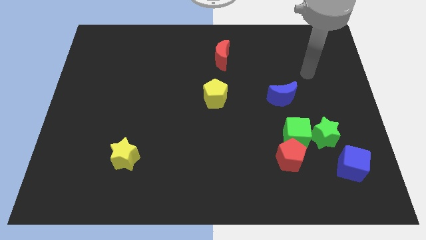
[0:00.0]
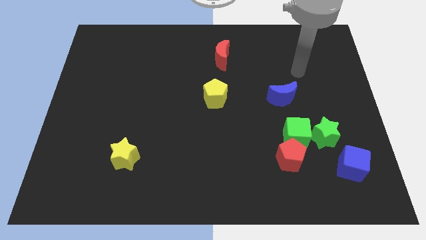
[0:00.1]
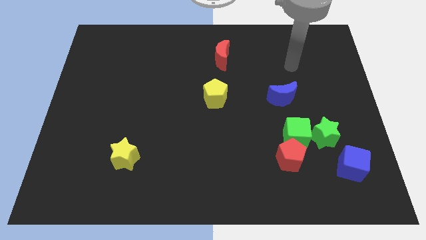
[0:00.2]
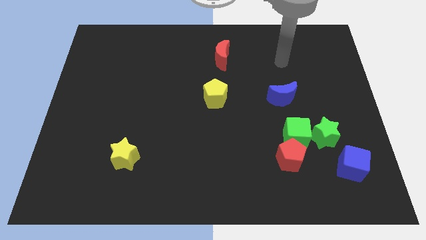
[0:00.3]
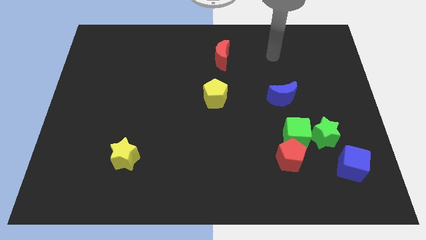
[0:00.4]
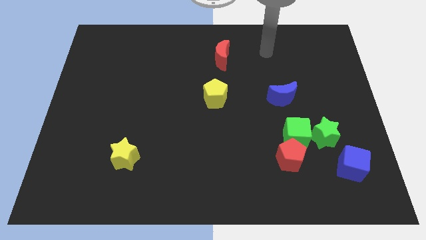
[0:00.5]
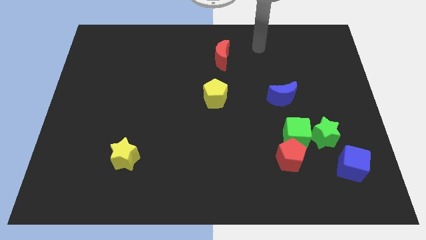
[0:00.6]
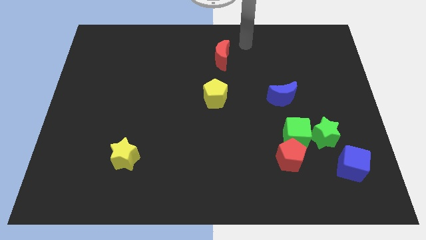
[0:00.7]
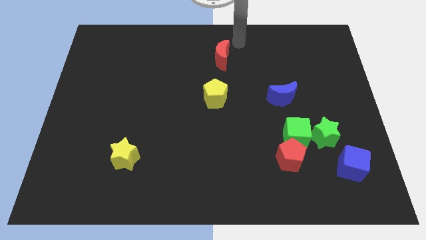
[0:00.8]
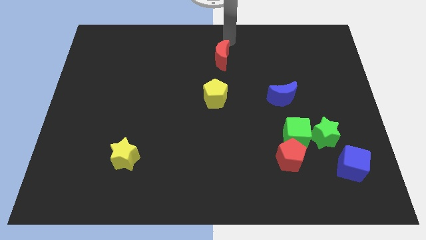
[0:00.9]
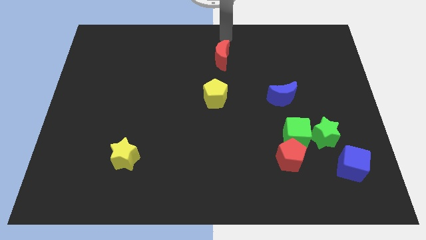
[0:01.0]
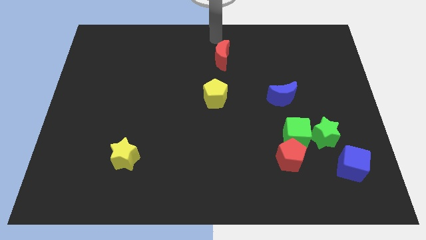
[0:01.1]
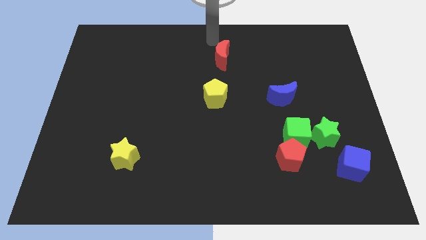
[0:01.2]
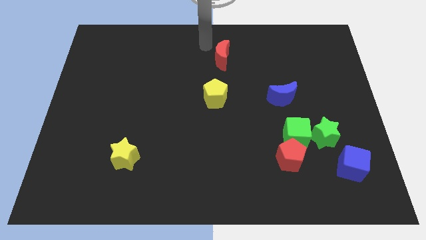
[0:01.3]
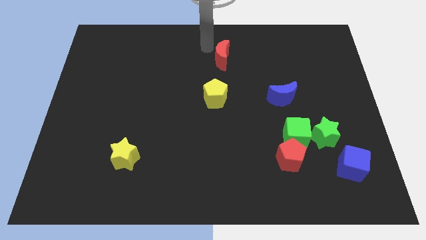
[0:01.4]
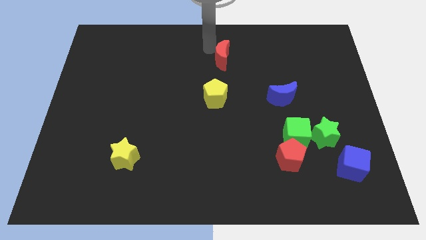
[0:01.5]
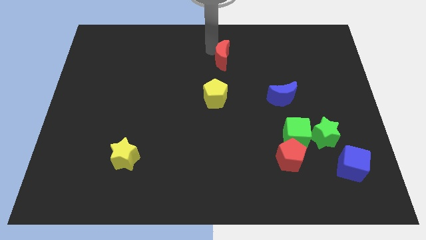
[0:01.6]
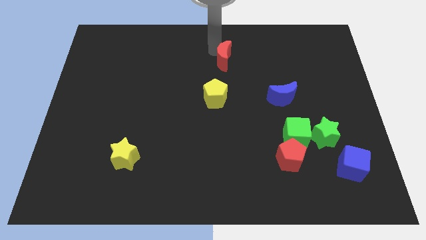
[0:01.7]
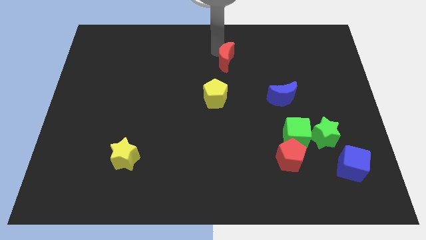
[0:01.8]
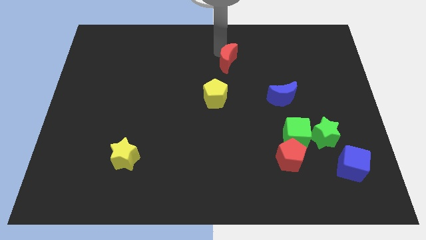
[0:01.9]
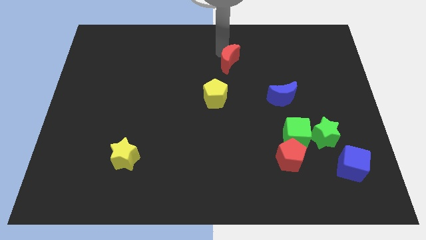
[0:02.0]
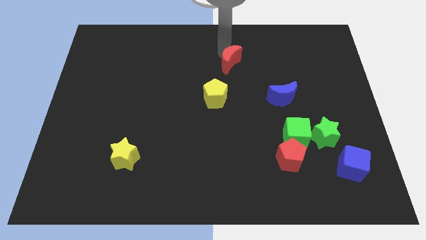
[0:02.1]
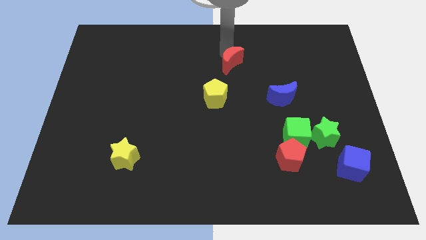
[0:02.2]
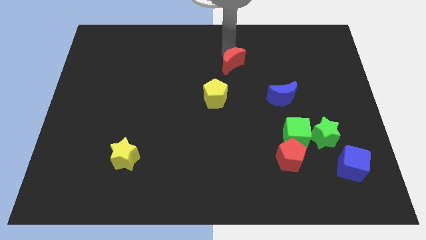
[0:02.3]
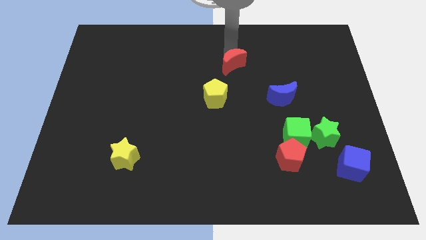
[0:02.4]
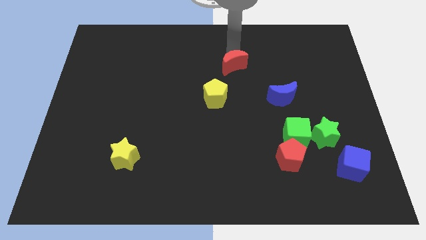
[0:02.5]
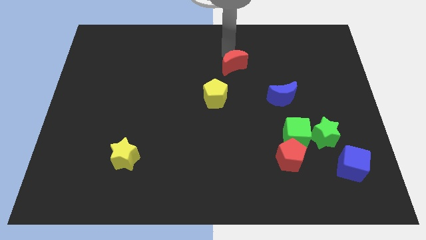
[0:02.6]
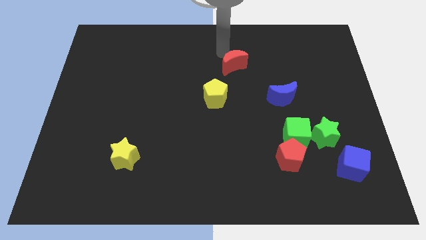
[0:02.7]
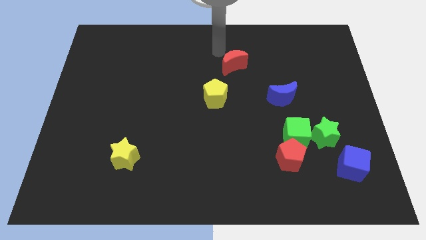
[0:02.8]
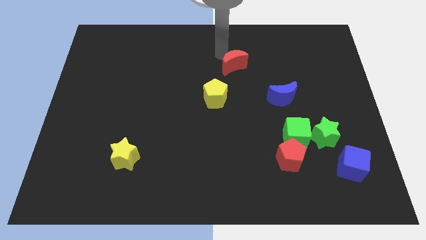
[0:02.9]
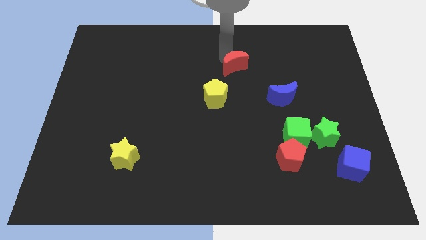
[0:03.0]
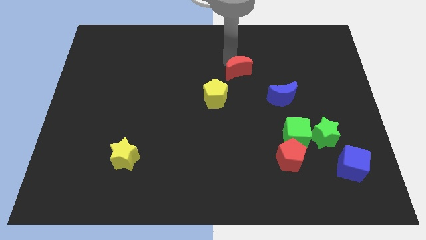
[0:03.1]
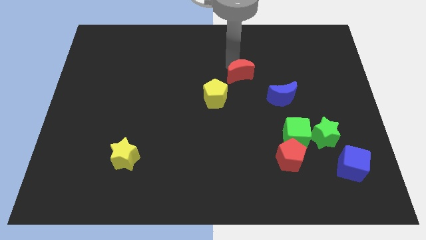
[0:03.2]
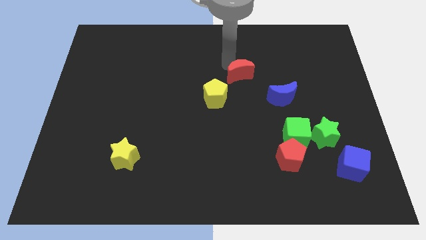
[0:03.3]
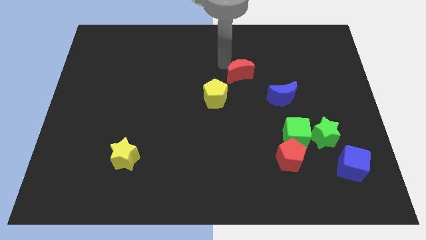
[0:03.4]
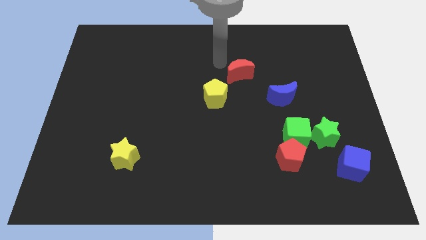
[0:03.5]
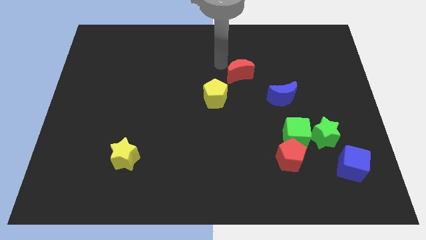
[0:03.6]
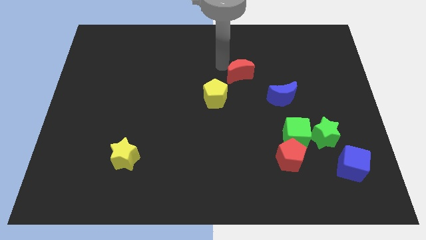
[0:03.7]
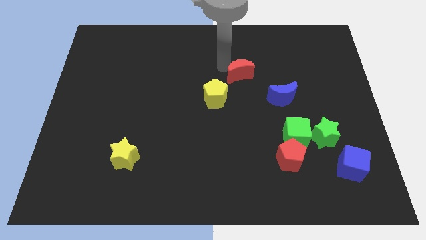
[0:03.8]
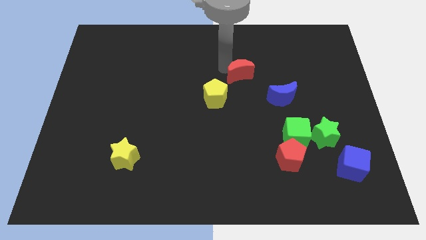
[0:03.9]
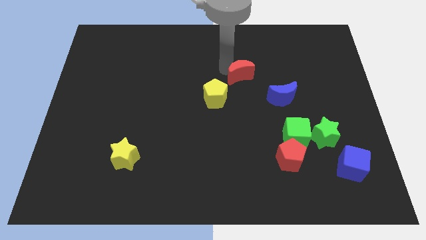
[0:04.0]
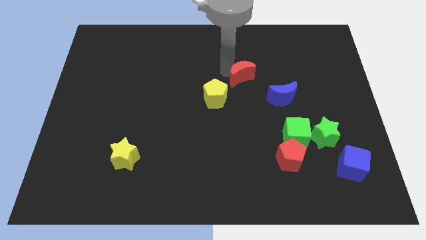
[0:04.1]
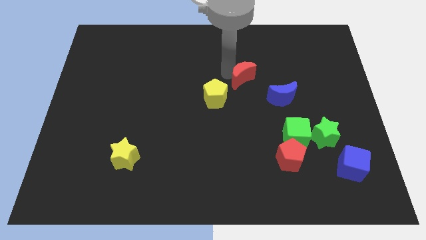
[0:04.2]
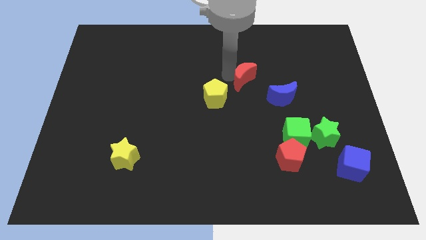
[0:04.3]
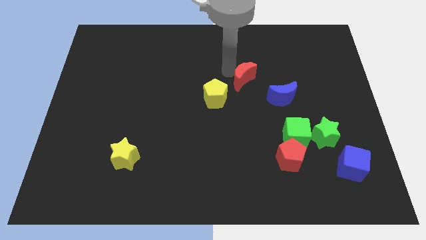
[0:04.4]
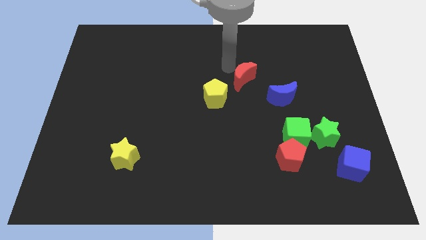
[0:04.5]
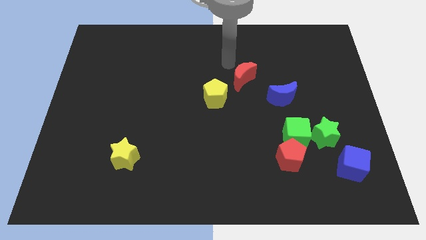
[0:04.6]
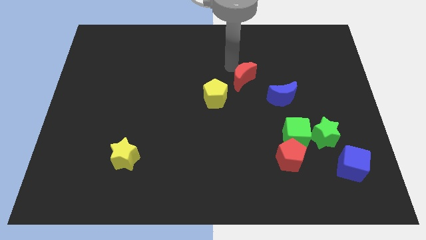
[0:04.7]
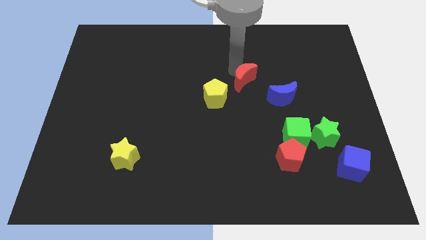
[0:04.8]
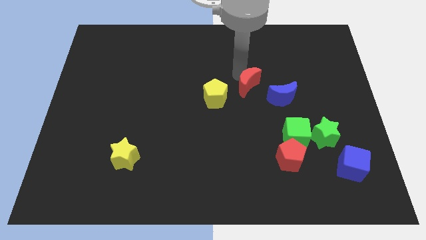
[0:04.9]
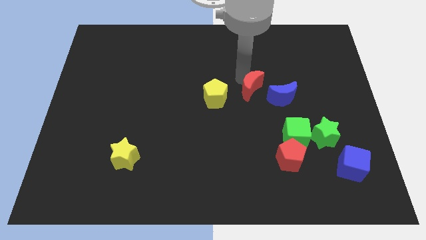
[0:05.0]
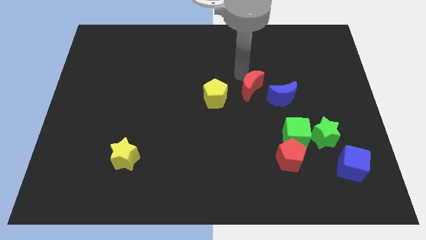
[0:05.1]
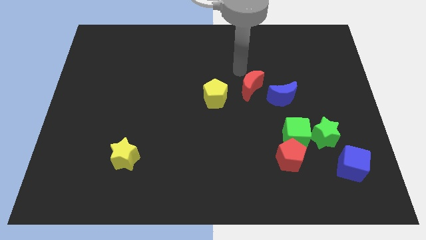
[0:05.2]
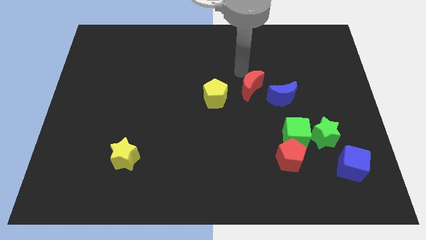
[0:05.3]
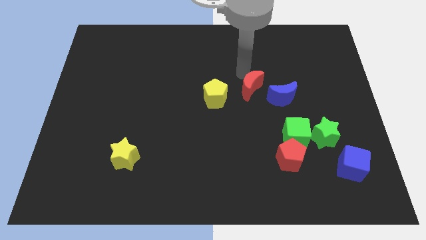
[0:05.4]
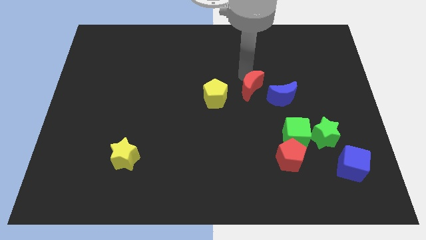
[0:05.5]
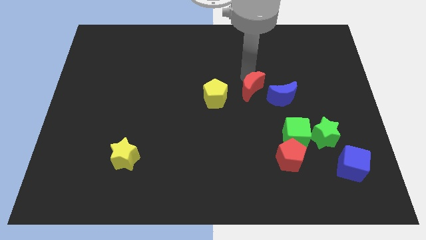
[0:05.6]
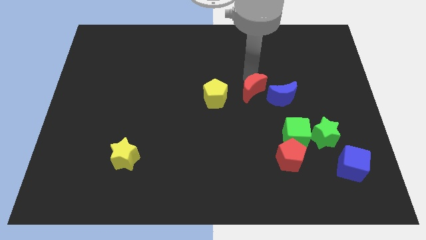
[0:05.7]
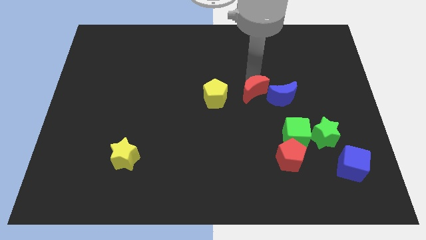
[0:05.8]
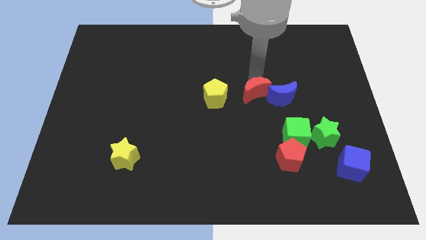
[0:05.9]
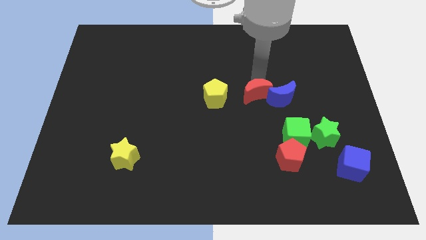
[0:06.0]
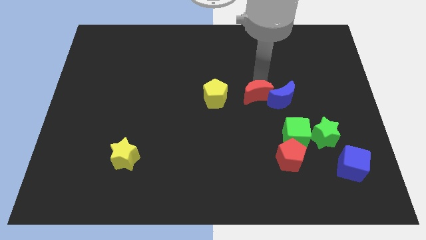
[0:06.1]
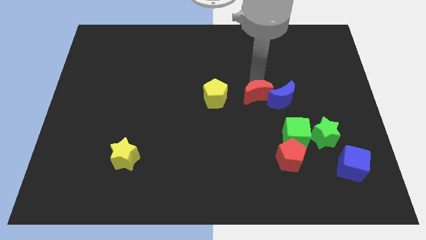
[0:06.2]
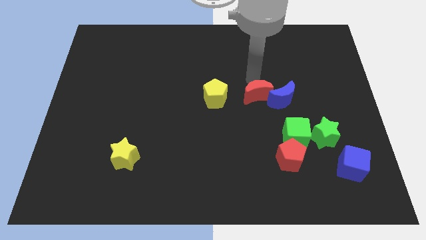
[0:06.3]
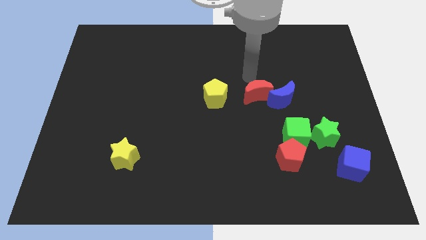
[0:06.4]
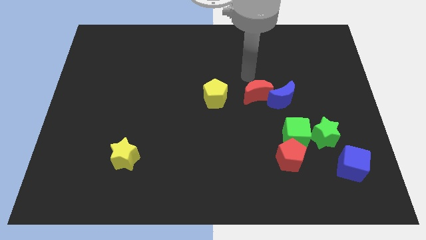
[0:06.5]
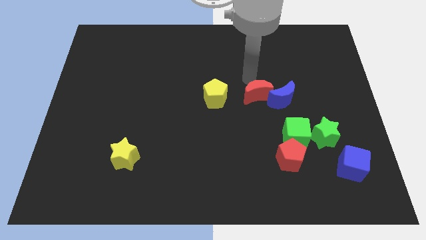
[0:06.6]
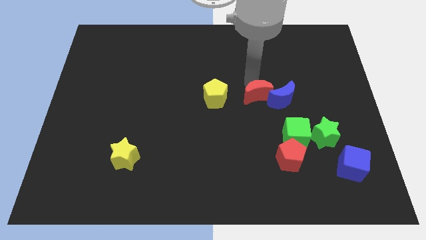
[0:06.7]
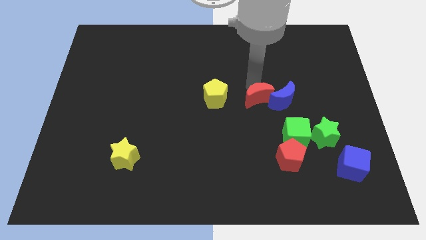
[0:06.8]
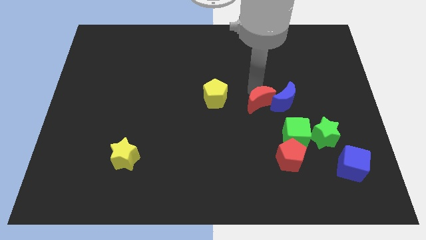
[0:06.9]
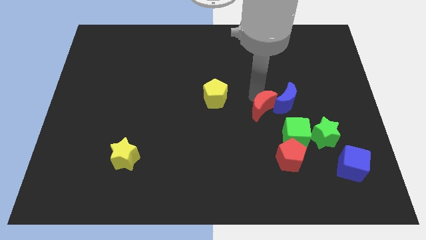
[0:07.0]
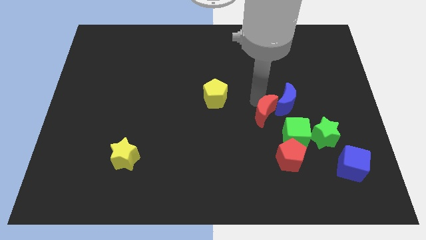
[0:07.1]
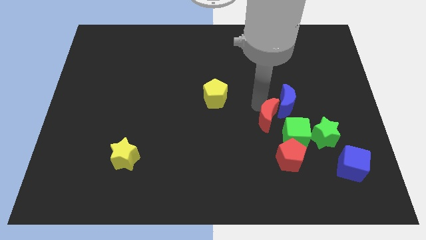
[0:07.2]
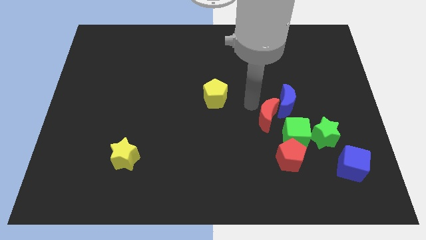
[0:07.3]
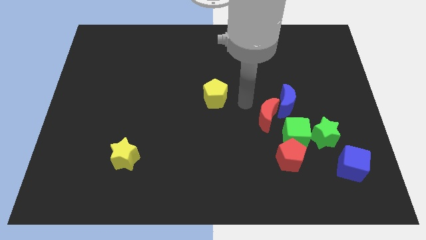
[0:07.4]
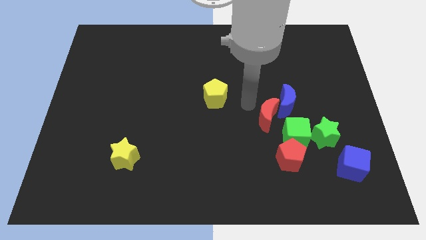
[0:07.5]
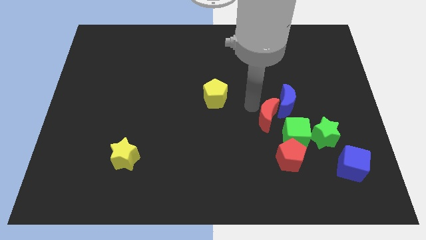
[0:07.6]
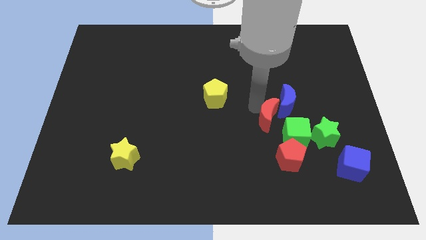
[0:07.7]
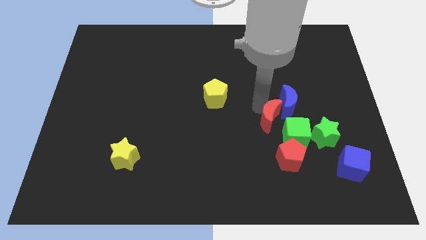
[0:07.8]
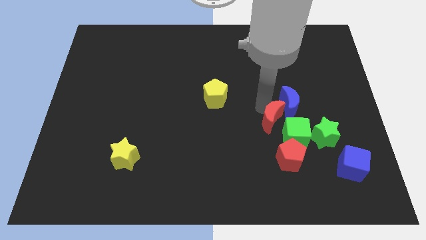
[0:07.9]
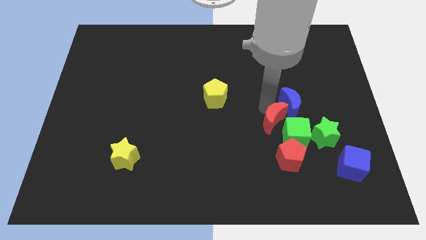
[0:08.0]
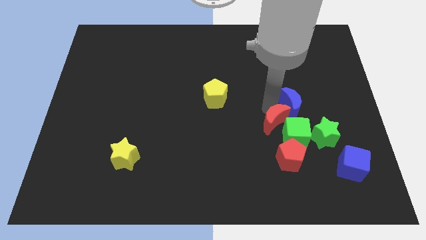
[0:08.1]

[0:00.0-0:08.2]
push the red moon next to the green cube
